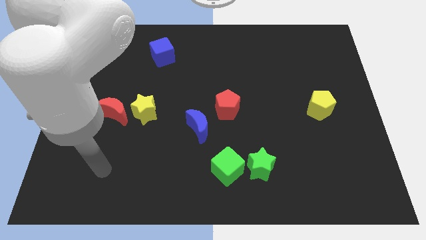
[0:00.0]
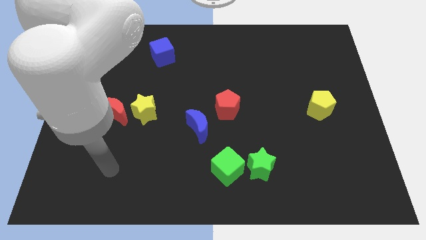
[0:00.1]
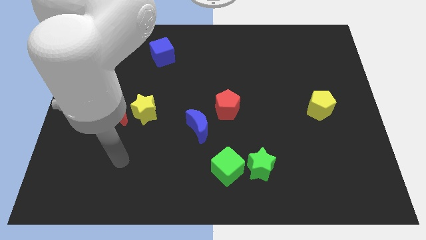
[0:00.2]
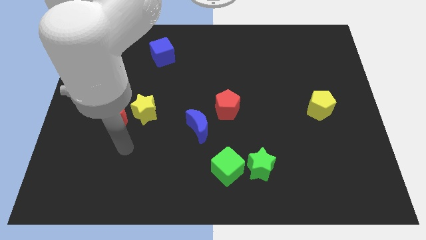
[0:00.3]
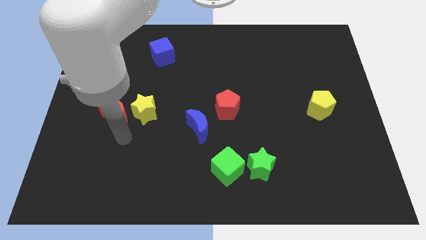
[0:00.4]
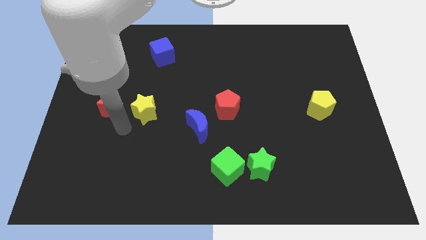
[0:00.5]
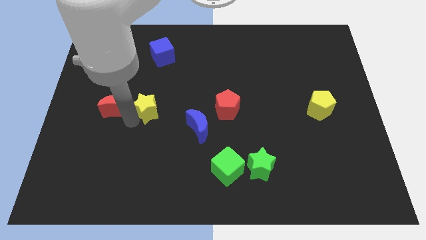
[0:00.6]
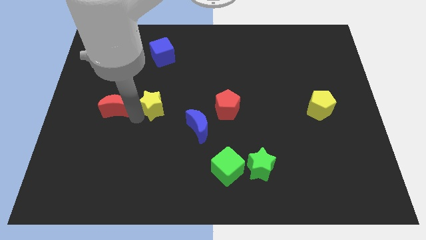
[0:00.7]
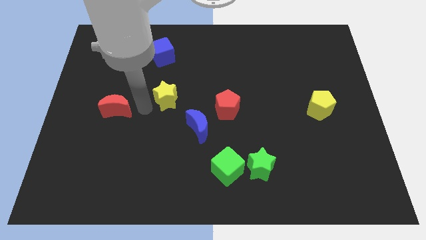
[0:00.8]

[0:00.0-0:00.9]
move the red moon away from the yellow star

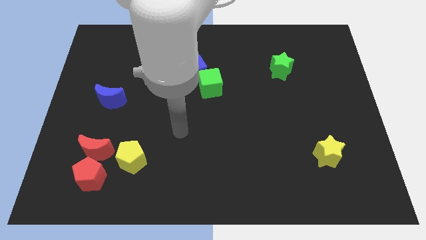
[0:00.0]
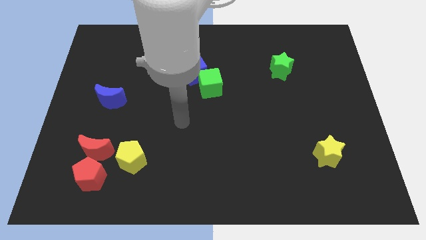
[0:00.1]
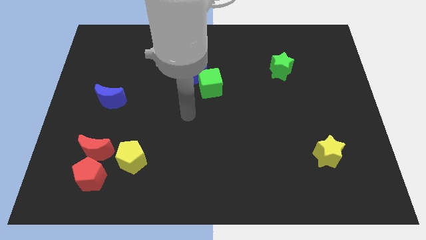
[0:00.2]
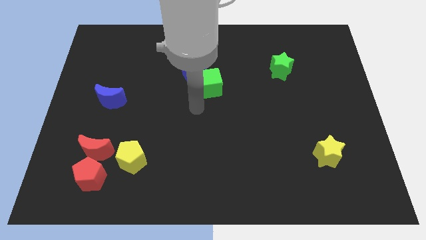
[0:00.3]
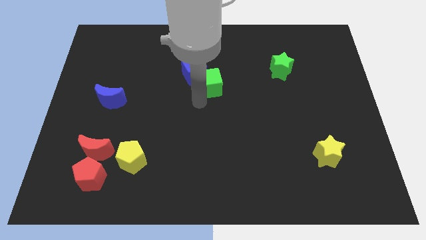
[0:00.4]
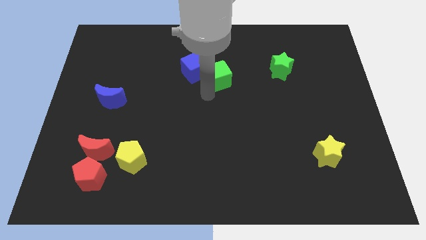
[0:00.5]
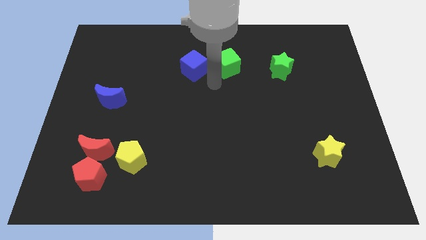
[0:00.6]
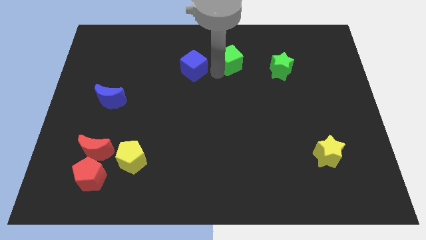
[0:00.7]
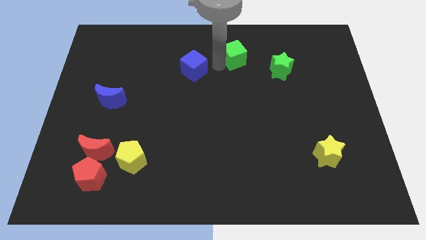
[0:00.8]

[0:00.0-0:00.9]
move the blue cube away from the green cube

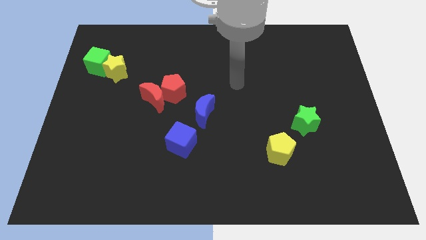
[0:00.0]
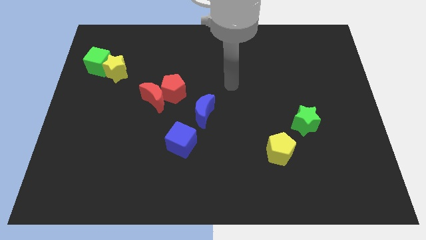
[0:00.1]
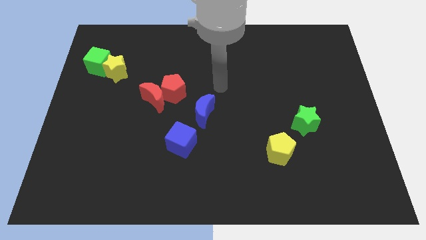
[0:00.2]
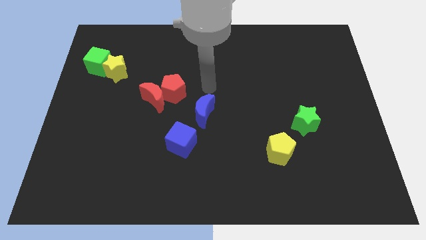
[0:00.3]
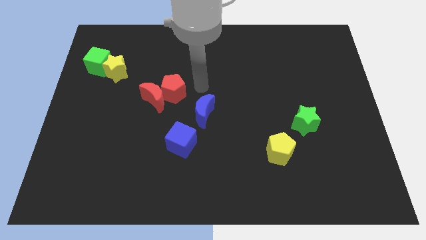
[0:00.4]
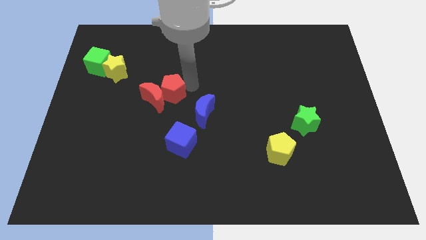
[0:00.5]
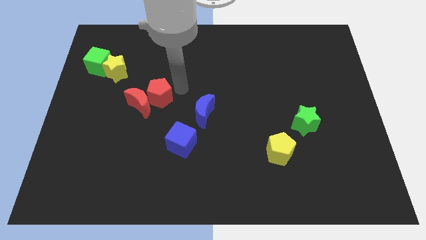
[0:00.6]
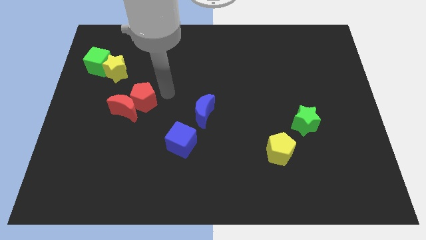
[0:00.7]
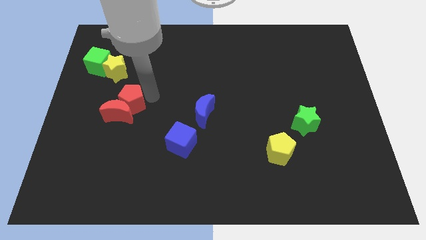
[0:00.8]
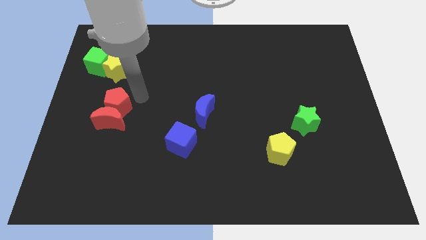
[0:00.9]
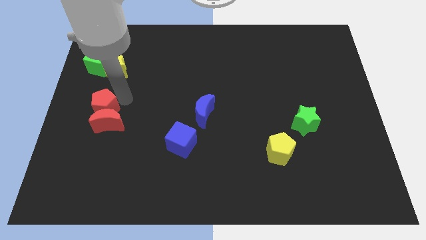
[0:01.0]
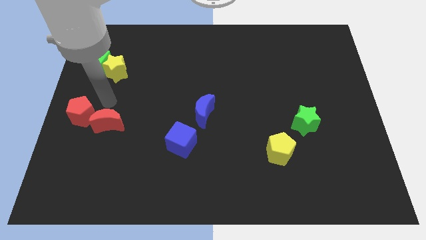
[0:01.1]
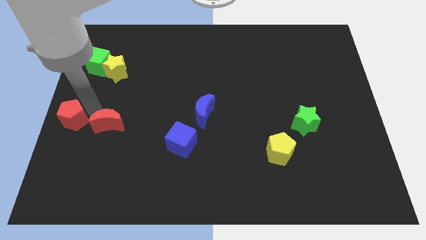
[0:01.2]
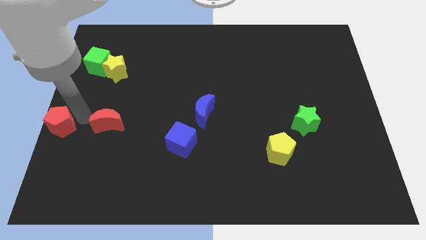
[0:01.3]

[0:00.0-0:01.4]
separate the red moon from the red pentagon

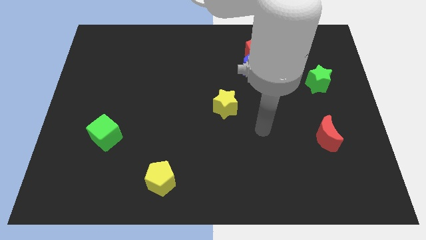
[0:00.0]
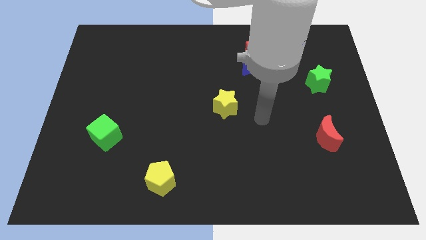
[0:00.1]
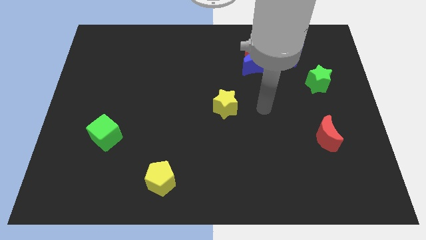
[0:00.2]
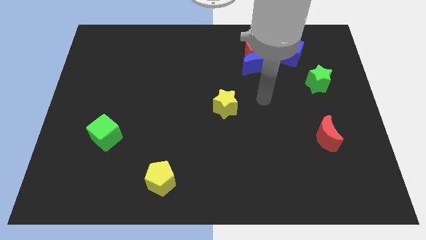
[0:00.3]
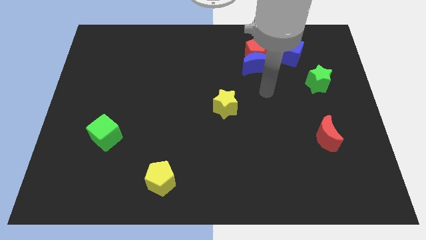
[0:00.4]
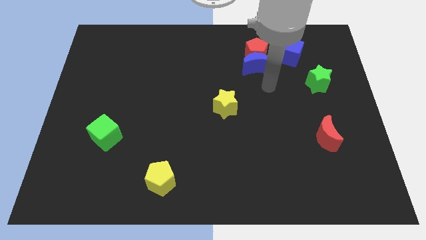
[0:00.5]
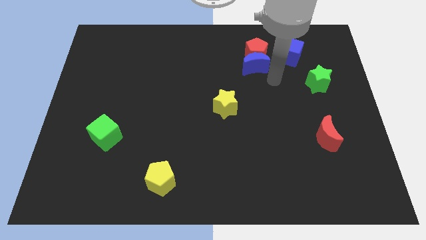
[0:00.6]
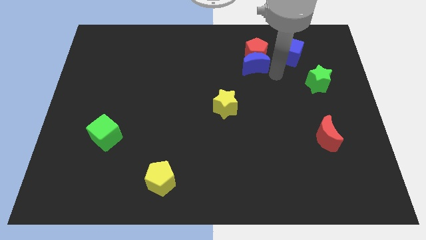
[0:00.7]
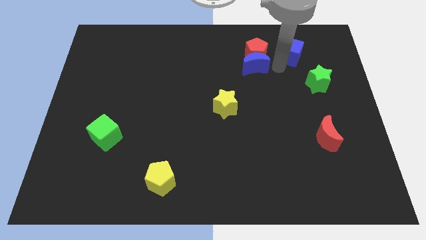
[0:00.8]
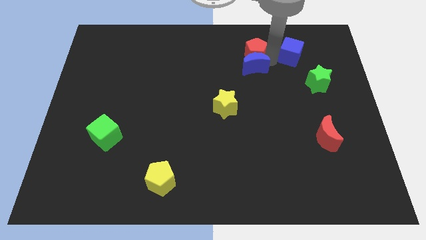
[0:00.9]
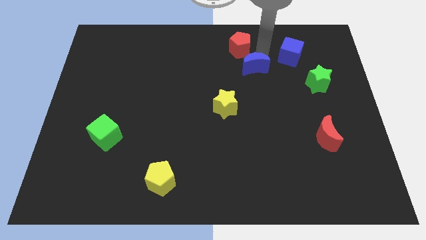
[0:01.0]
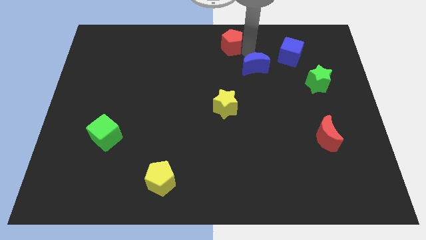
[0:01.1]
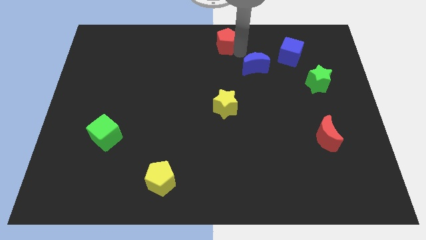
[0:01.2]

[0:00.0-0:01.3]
separate the blue moon from the red pentagon

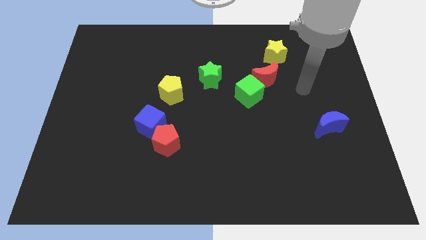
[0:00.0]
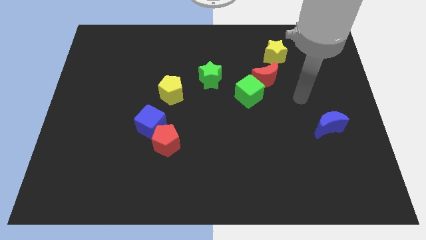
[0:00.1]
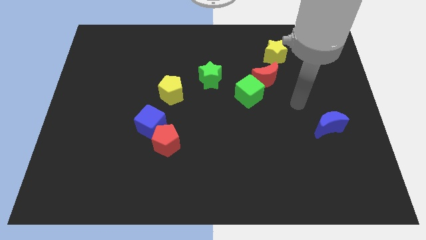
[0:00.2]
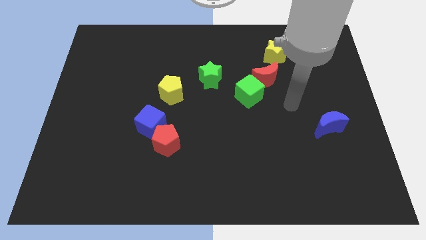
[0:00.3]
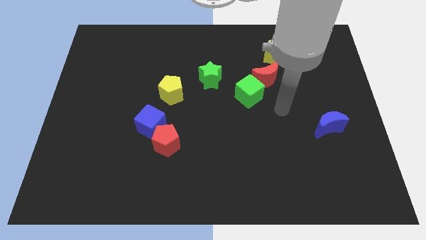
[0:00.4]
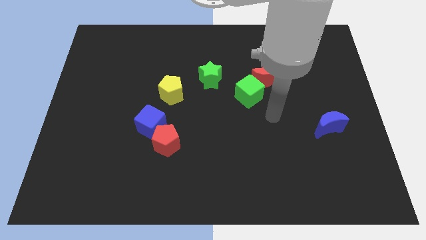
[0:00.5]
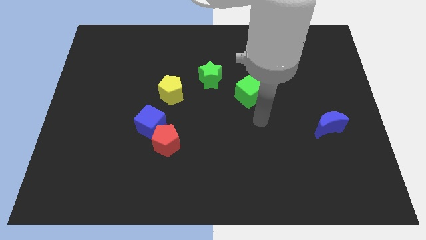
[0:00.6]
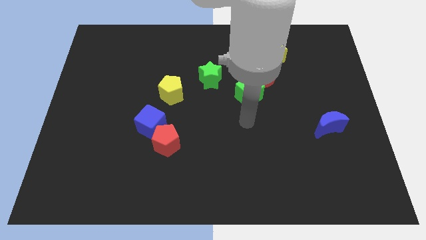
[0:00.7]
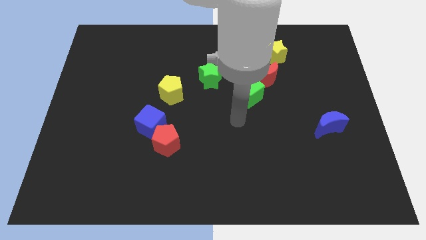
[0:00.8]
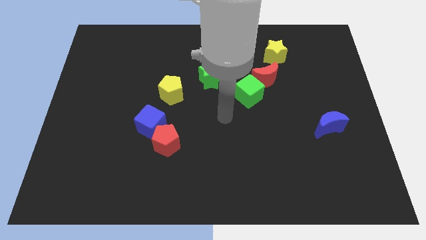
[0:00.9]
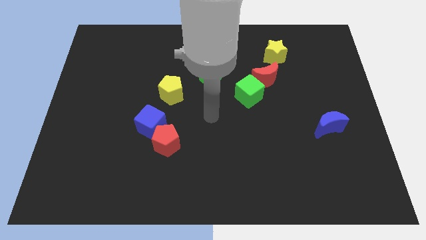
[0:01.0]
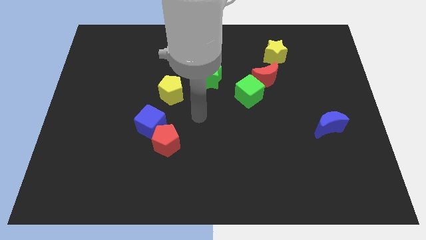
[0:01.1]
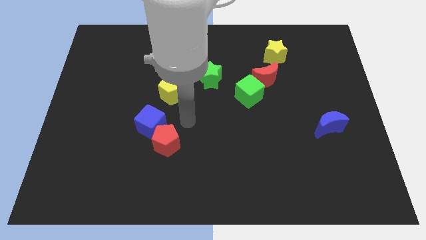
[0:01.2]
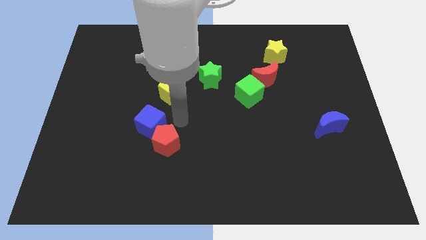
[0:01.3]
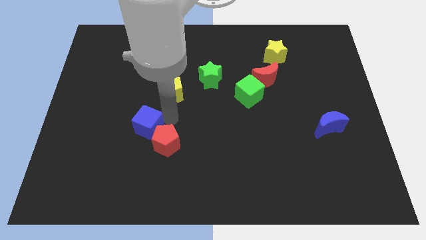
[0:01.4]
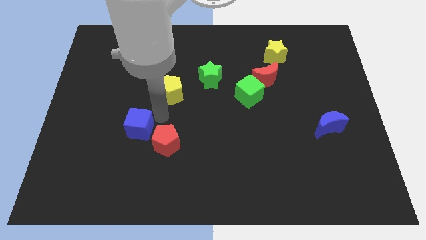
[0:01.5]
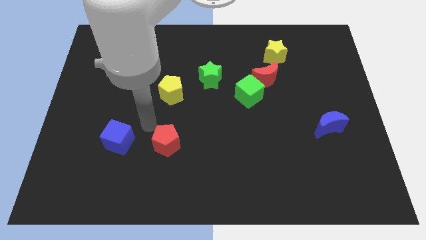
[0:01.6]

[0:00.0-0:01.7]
move the red pentagon away from the blue cube

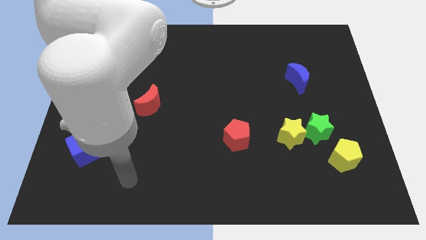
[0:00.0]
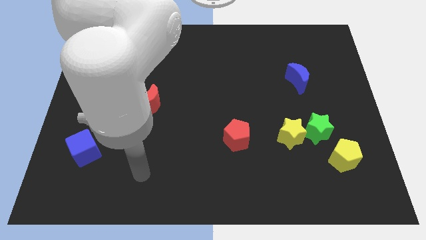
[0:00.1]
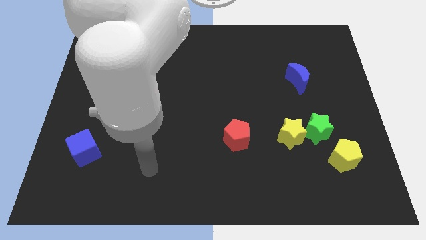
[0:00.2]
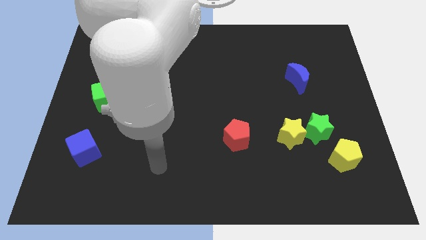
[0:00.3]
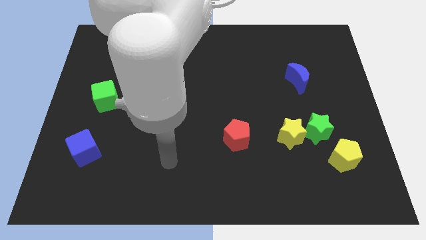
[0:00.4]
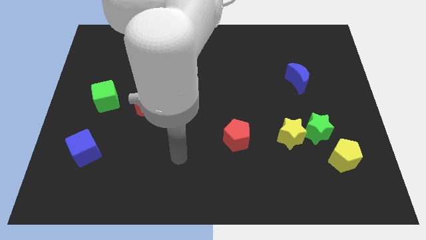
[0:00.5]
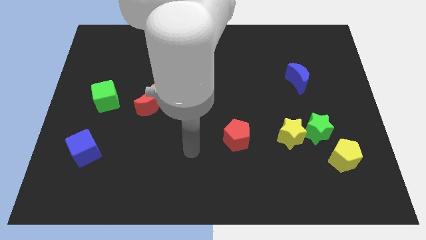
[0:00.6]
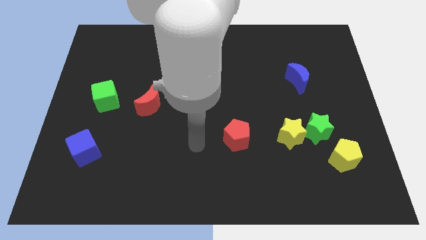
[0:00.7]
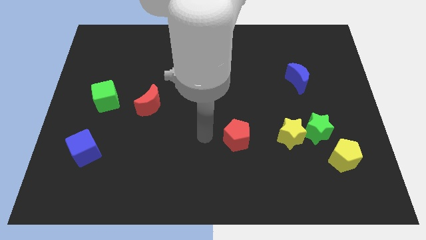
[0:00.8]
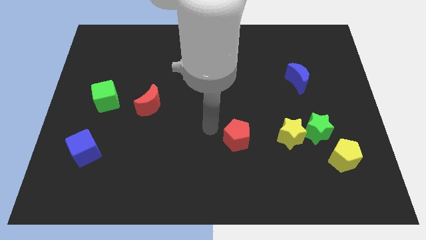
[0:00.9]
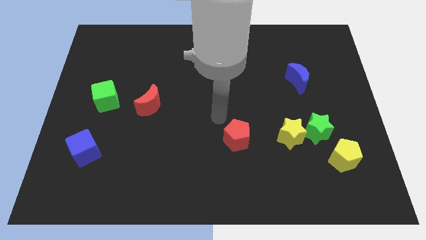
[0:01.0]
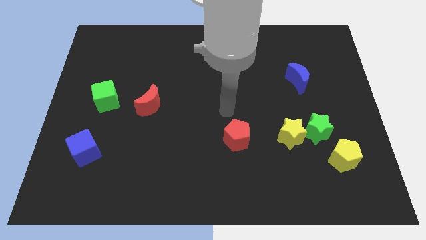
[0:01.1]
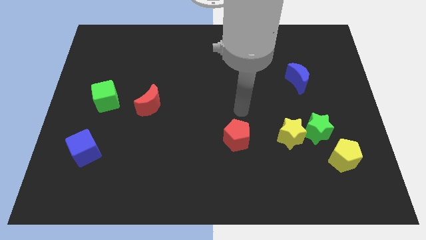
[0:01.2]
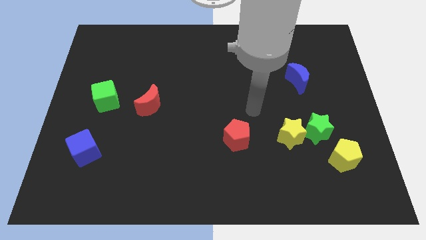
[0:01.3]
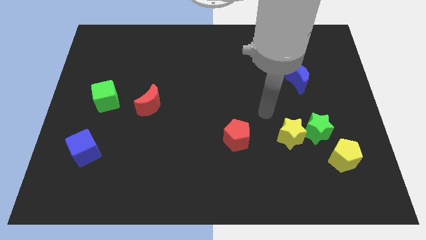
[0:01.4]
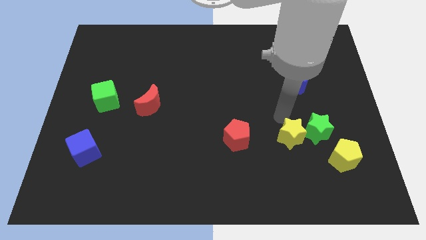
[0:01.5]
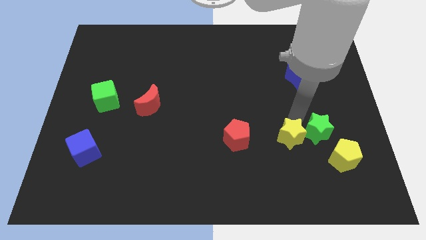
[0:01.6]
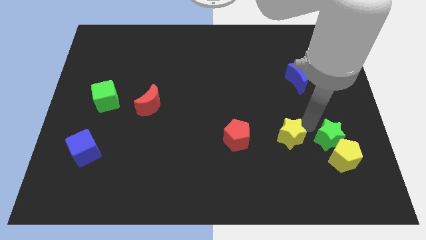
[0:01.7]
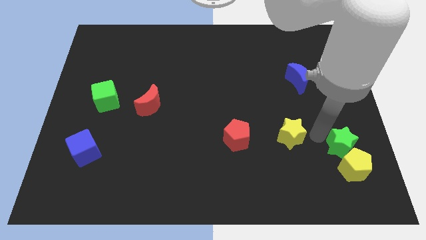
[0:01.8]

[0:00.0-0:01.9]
separate the yellow star from the green star

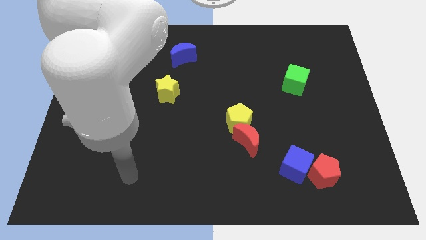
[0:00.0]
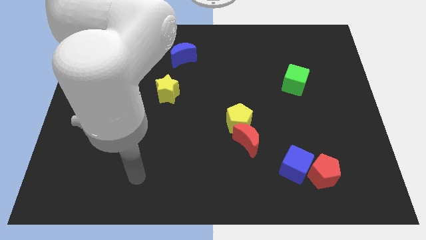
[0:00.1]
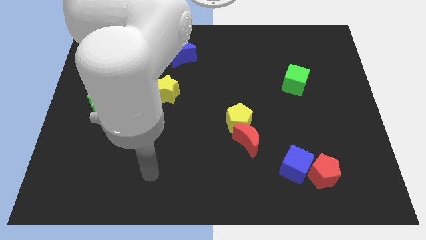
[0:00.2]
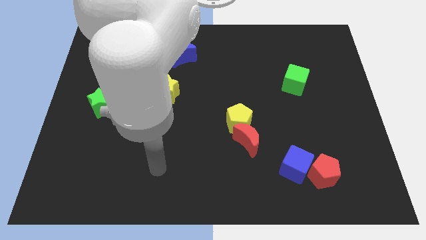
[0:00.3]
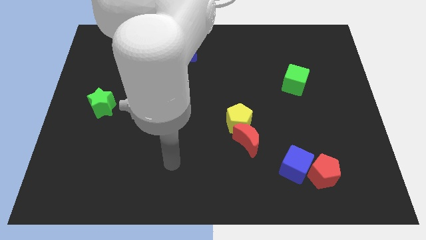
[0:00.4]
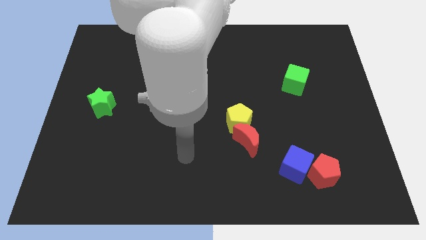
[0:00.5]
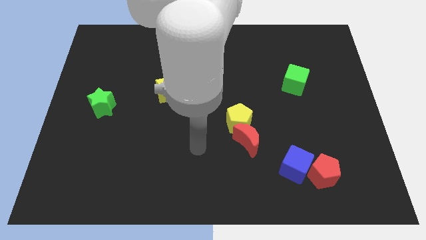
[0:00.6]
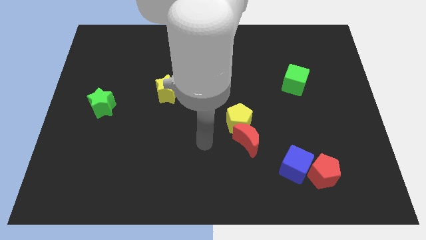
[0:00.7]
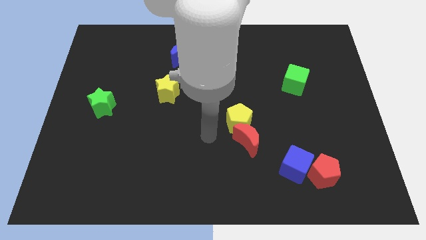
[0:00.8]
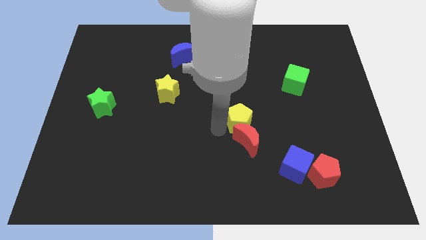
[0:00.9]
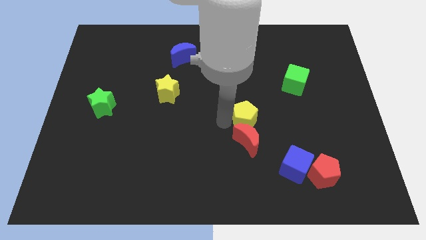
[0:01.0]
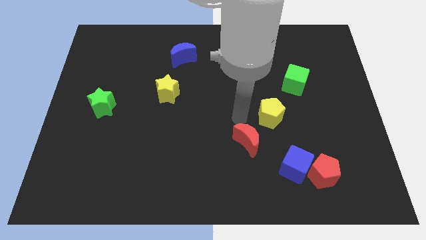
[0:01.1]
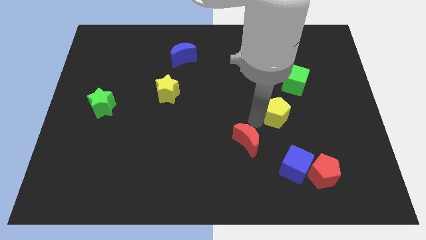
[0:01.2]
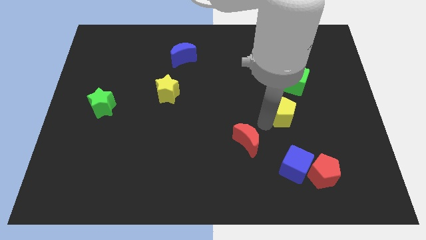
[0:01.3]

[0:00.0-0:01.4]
separate the red moon from the yellow pentagon
